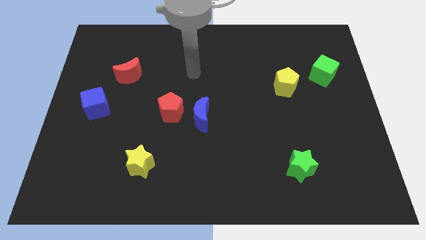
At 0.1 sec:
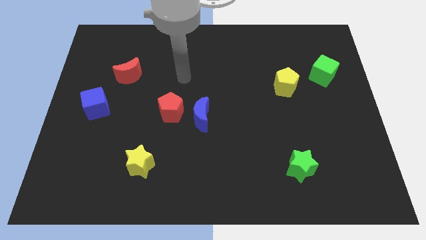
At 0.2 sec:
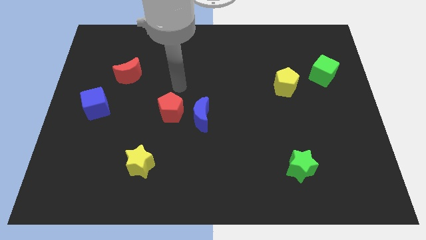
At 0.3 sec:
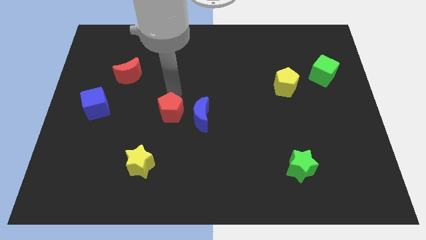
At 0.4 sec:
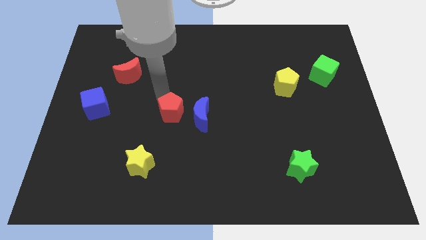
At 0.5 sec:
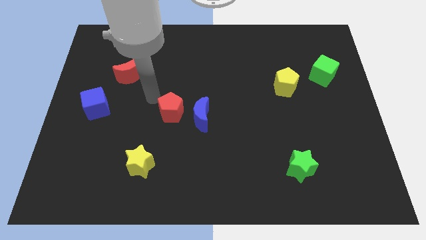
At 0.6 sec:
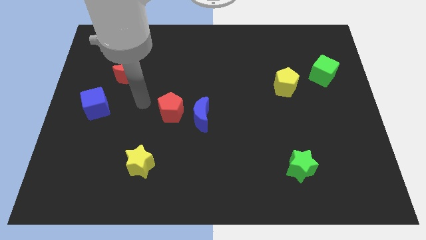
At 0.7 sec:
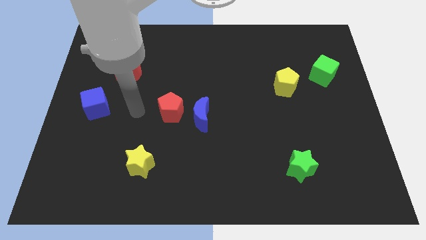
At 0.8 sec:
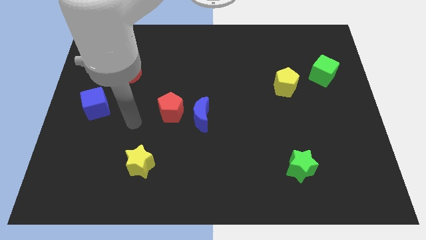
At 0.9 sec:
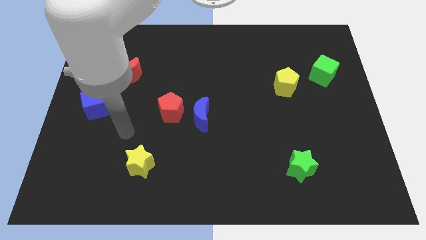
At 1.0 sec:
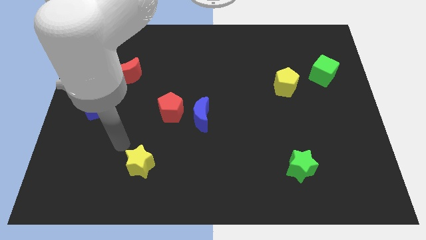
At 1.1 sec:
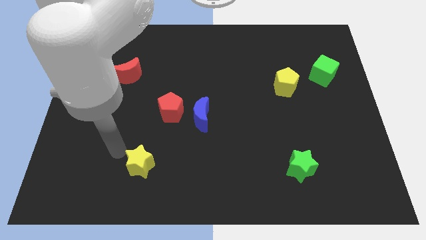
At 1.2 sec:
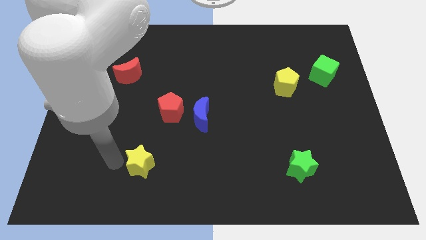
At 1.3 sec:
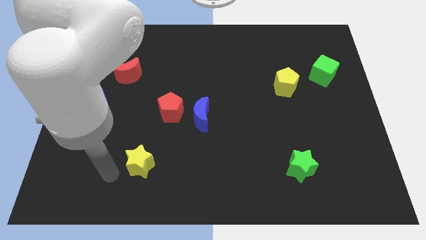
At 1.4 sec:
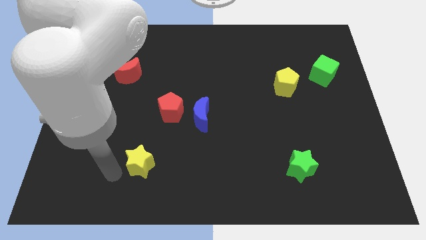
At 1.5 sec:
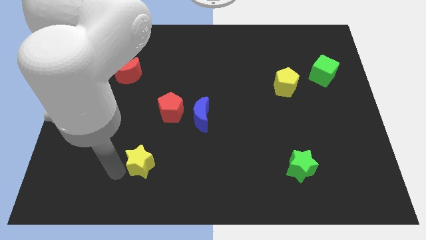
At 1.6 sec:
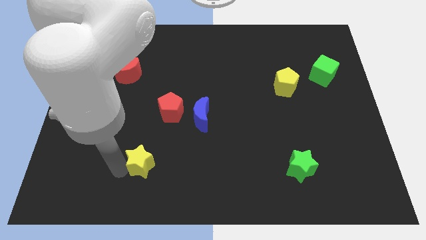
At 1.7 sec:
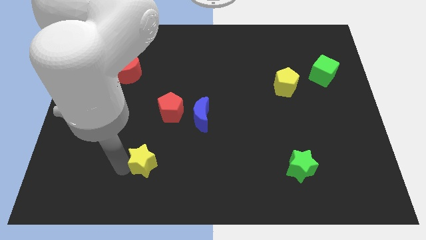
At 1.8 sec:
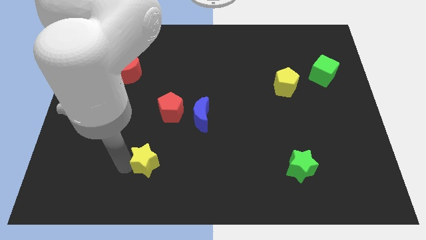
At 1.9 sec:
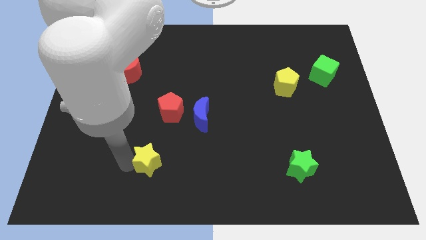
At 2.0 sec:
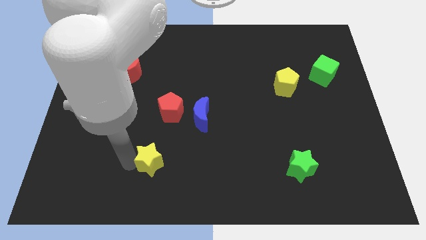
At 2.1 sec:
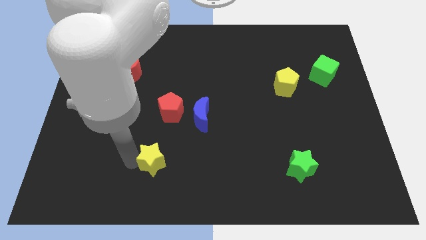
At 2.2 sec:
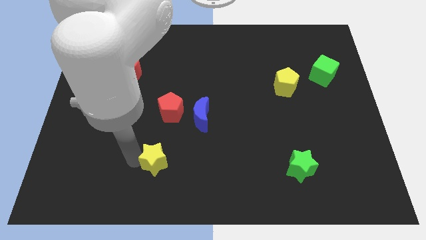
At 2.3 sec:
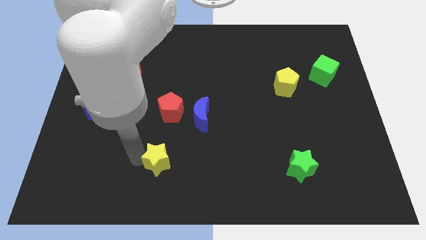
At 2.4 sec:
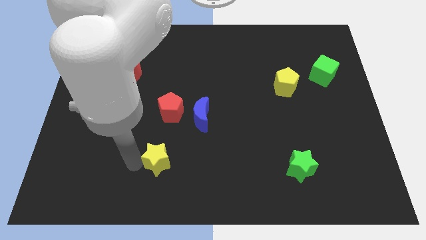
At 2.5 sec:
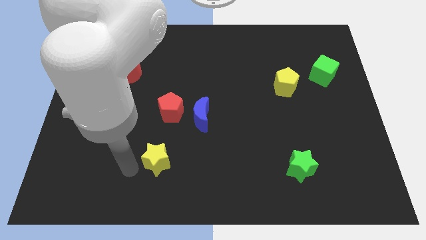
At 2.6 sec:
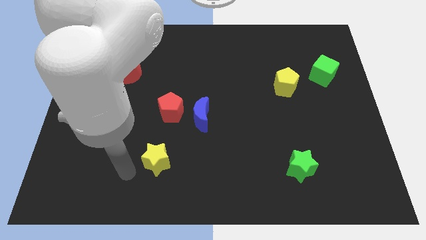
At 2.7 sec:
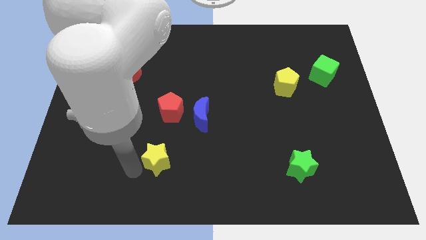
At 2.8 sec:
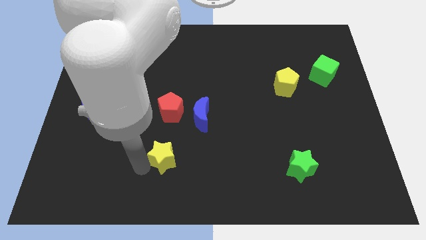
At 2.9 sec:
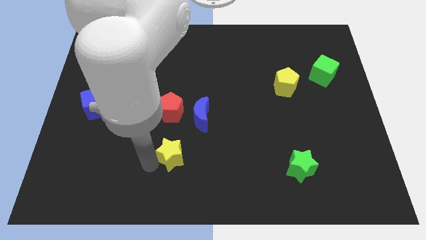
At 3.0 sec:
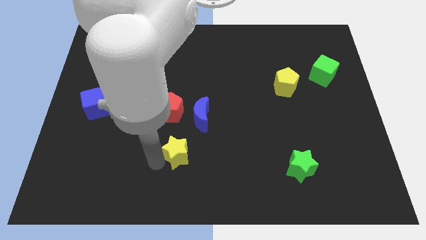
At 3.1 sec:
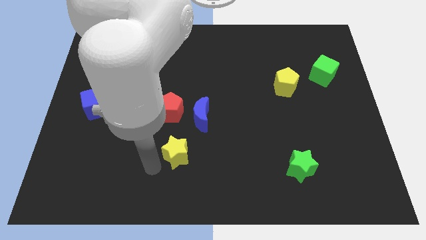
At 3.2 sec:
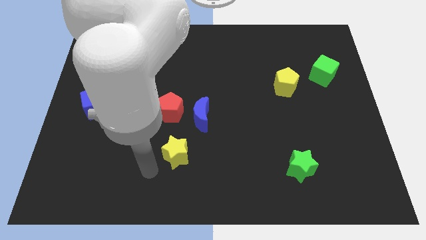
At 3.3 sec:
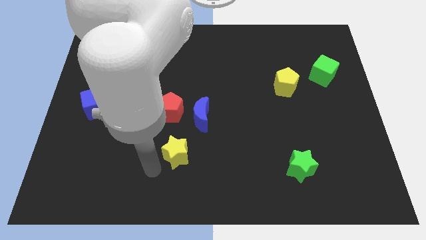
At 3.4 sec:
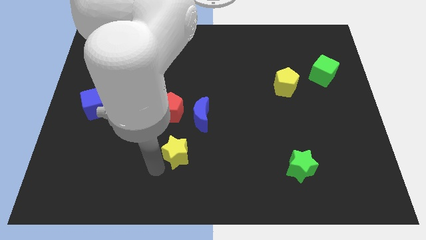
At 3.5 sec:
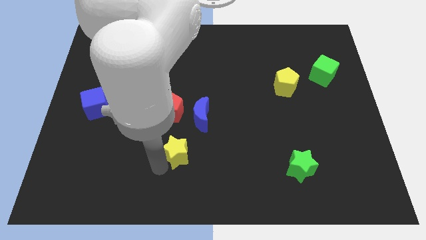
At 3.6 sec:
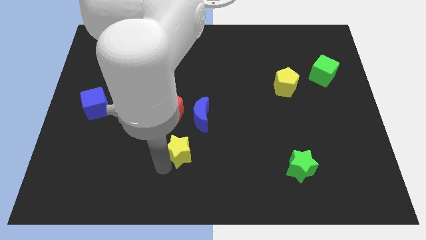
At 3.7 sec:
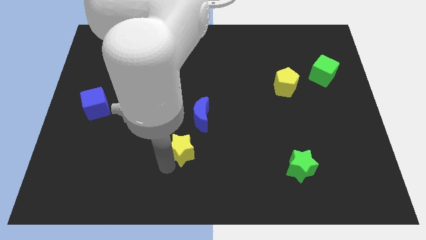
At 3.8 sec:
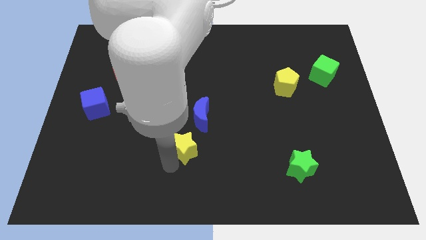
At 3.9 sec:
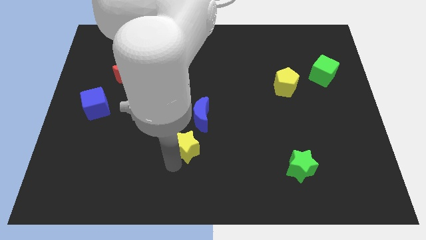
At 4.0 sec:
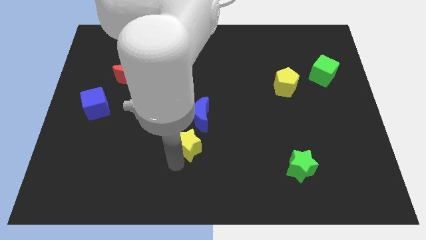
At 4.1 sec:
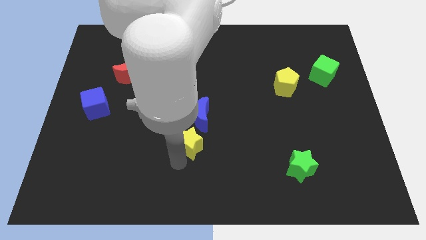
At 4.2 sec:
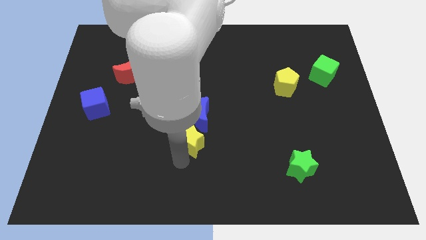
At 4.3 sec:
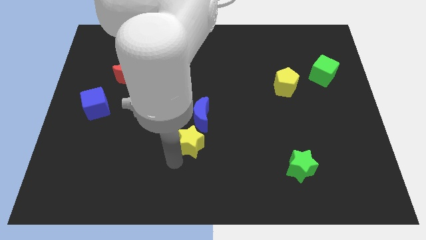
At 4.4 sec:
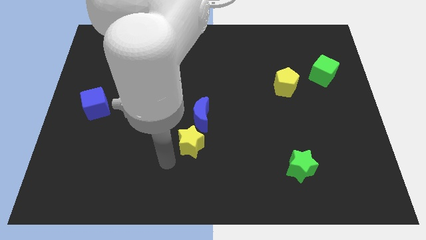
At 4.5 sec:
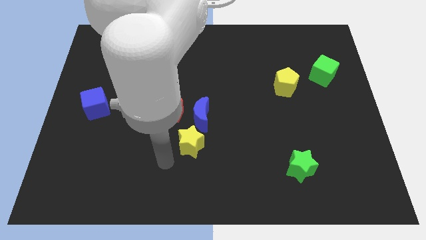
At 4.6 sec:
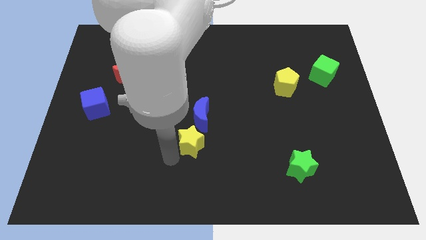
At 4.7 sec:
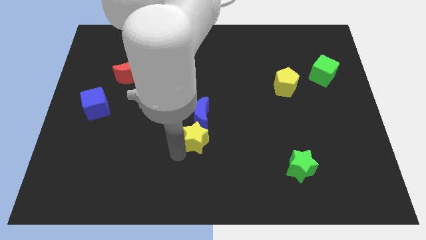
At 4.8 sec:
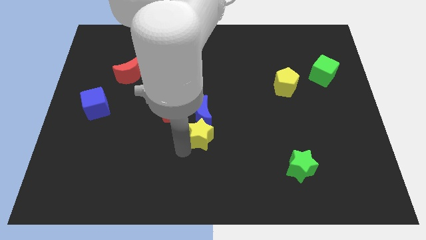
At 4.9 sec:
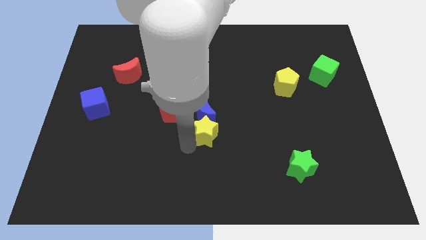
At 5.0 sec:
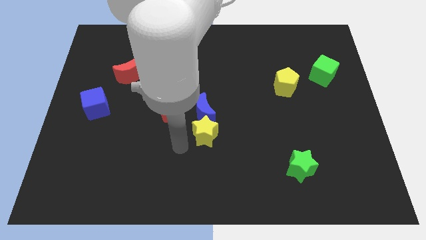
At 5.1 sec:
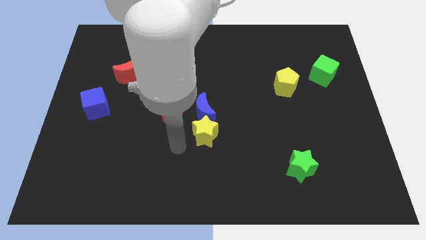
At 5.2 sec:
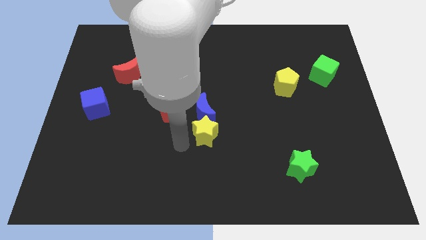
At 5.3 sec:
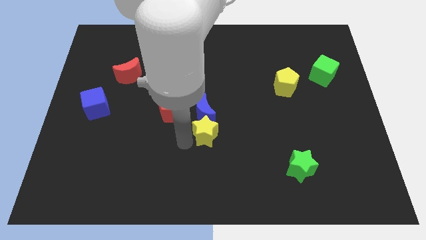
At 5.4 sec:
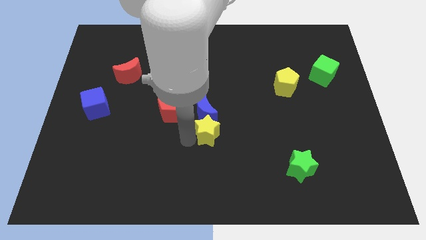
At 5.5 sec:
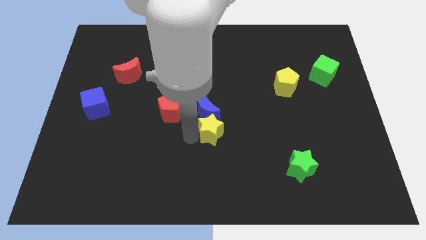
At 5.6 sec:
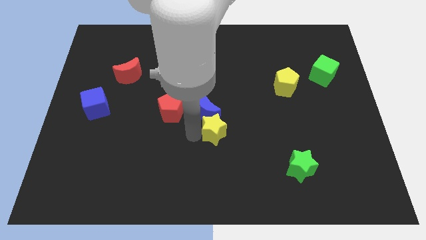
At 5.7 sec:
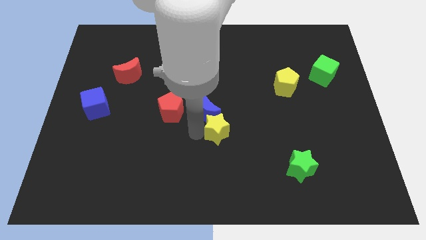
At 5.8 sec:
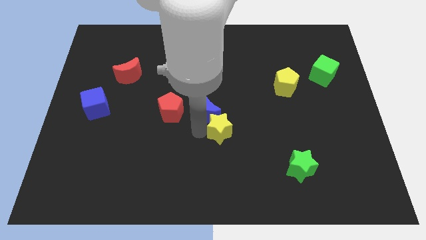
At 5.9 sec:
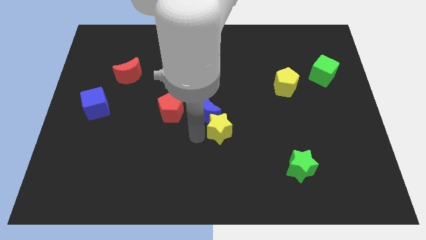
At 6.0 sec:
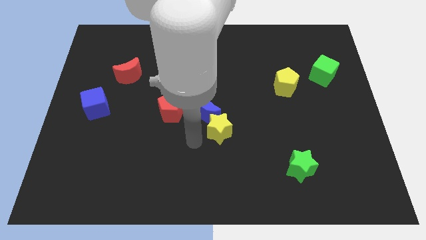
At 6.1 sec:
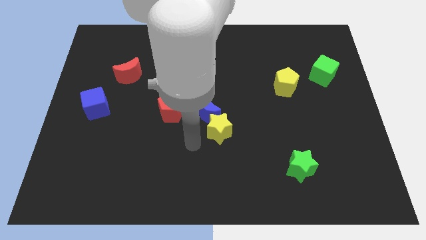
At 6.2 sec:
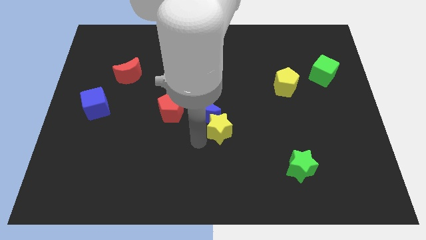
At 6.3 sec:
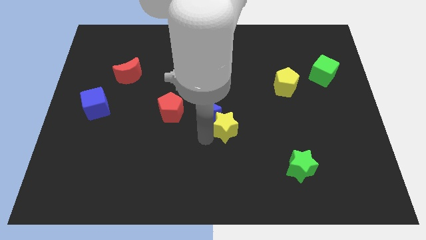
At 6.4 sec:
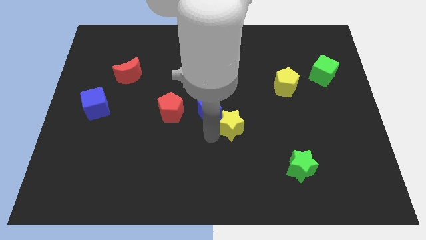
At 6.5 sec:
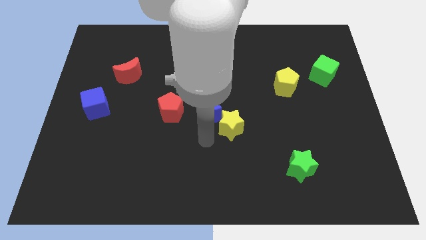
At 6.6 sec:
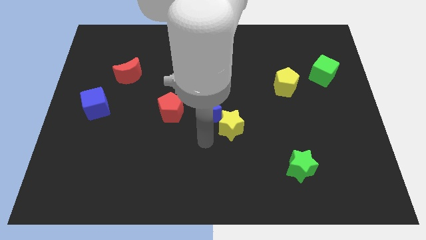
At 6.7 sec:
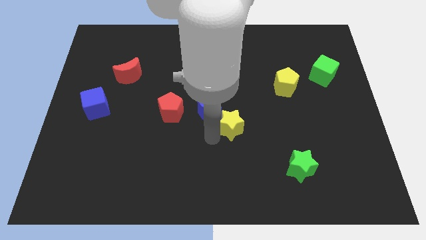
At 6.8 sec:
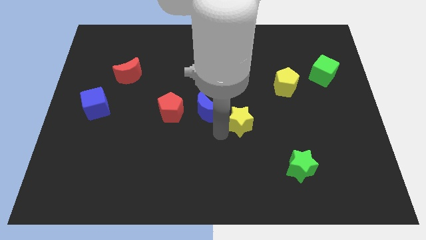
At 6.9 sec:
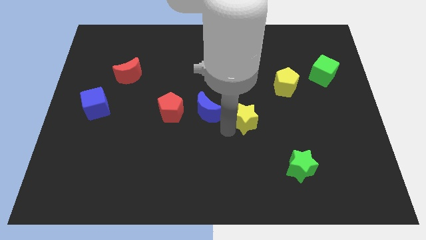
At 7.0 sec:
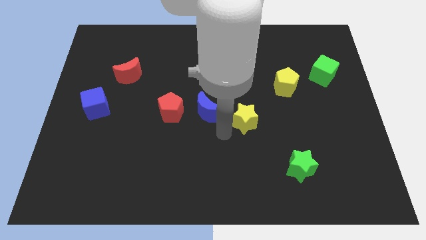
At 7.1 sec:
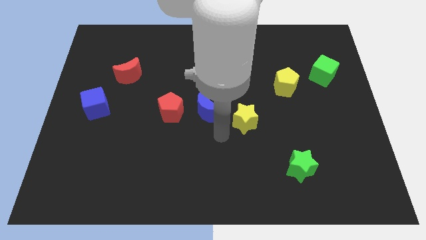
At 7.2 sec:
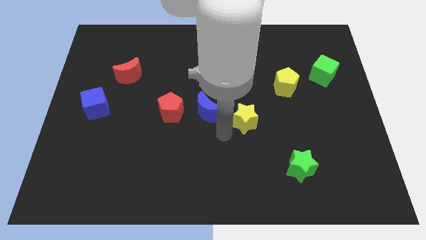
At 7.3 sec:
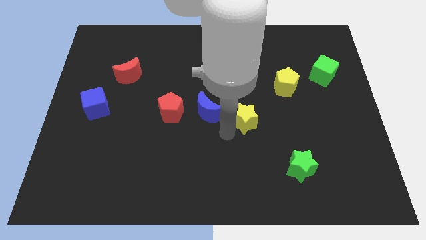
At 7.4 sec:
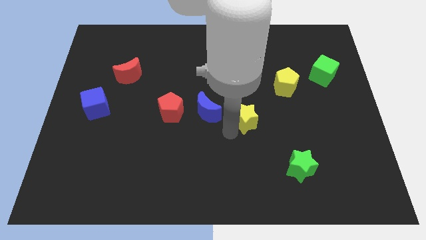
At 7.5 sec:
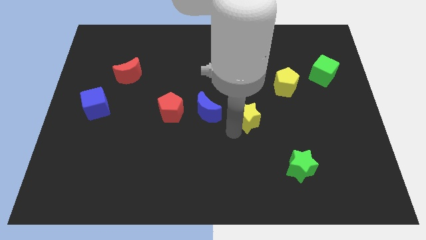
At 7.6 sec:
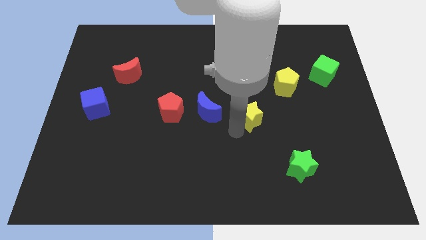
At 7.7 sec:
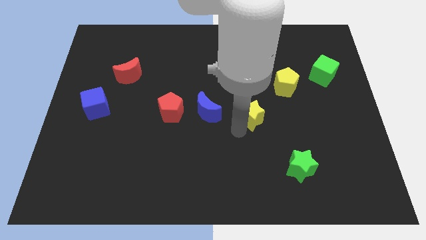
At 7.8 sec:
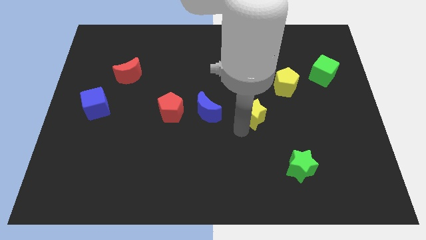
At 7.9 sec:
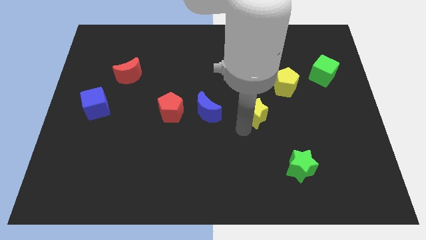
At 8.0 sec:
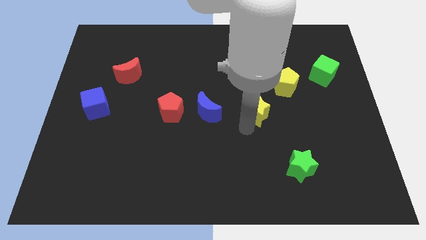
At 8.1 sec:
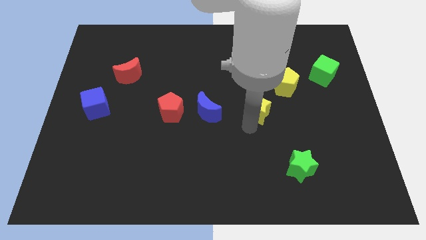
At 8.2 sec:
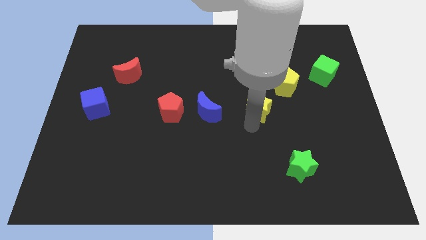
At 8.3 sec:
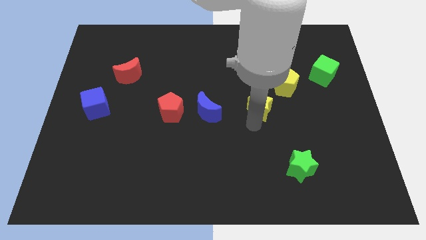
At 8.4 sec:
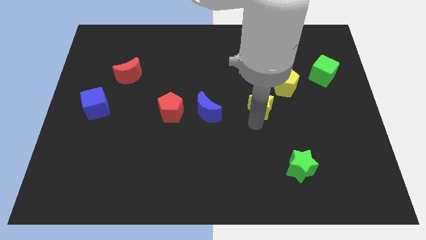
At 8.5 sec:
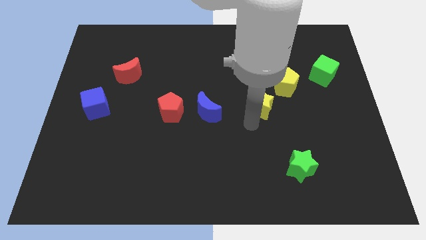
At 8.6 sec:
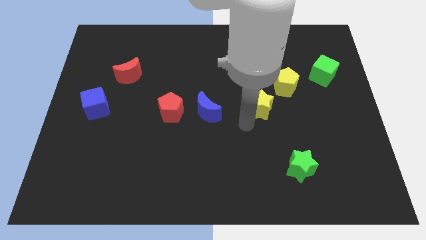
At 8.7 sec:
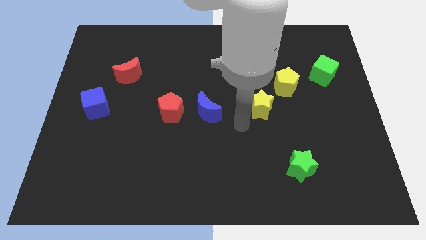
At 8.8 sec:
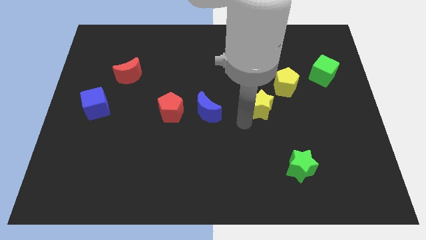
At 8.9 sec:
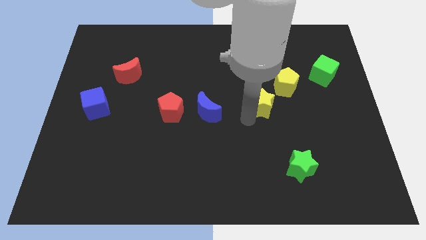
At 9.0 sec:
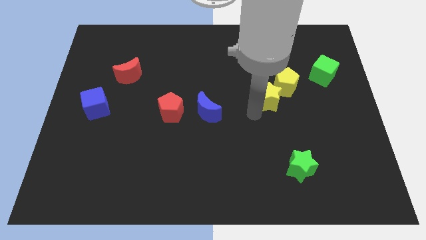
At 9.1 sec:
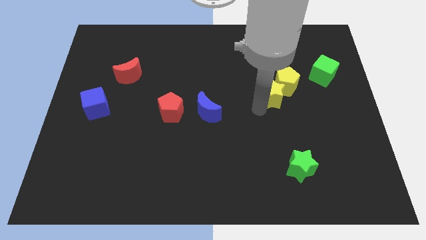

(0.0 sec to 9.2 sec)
move the yellow star towards the yellow pentagon
